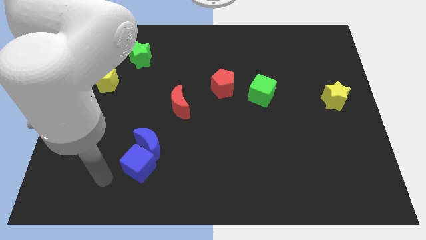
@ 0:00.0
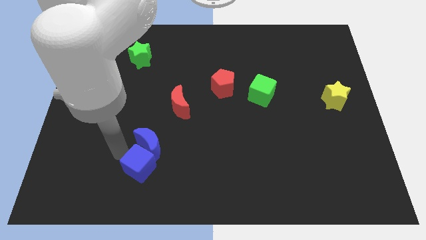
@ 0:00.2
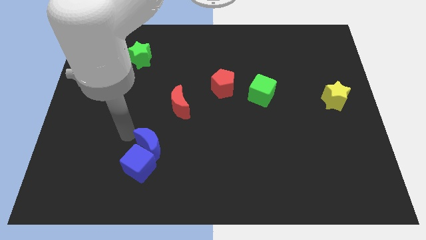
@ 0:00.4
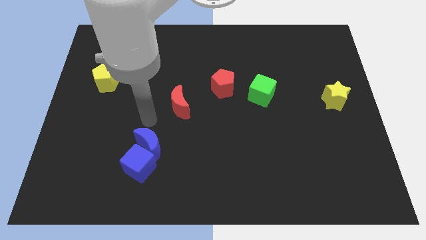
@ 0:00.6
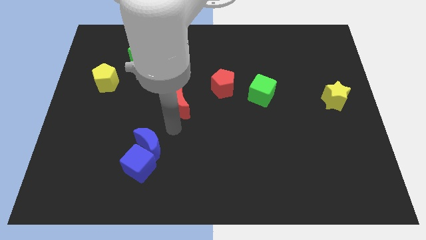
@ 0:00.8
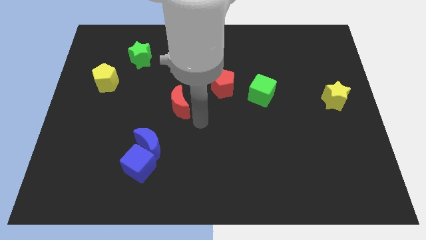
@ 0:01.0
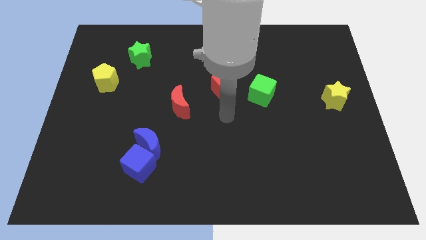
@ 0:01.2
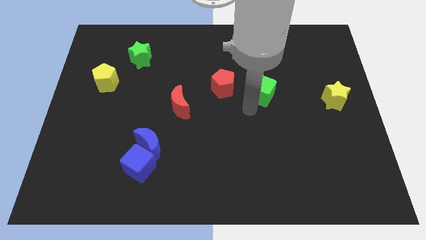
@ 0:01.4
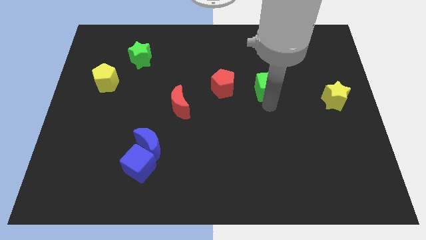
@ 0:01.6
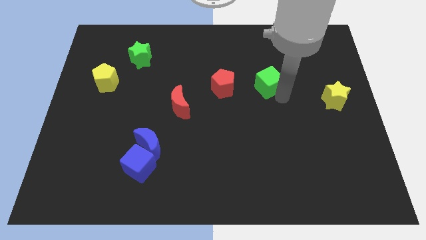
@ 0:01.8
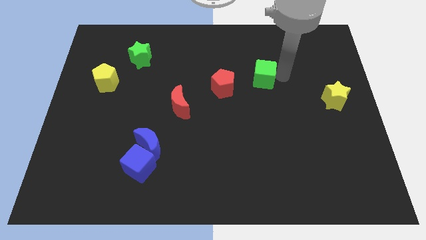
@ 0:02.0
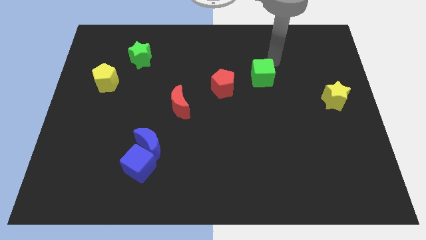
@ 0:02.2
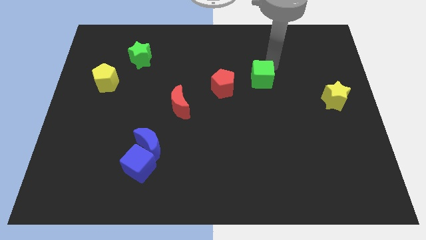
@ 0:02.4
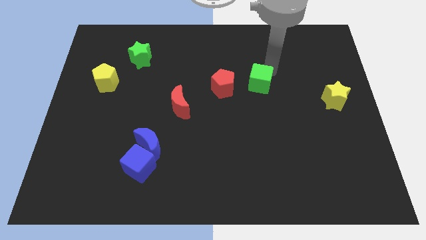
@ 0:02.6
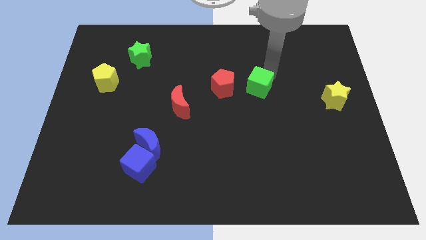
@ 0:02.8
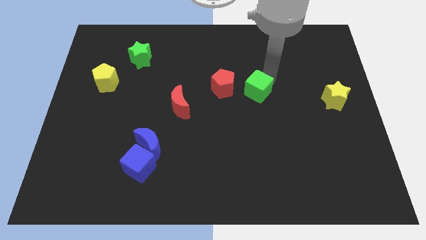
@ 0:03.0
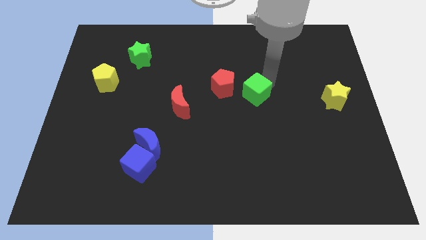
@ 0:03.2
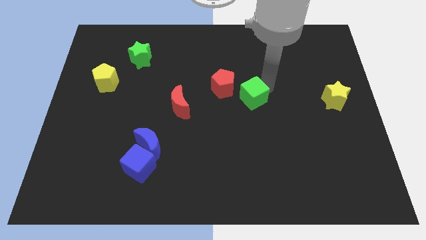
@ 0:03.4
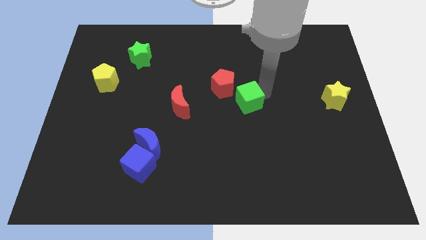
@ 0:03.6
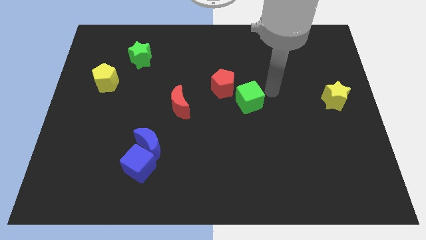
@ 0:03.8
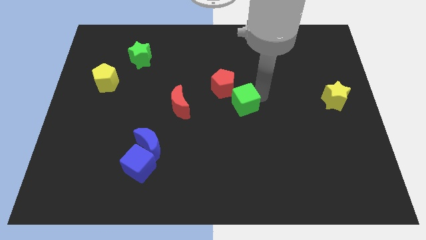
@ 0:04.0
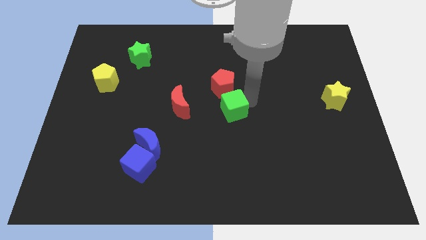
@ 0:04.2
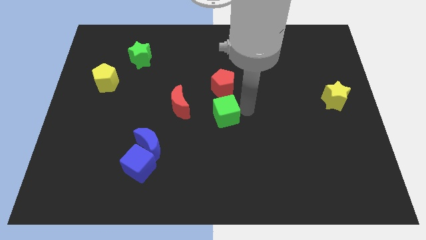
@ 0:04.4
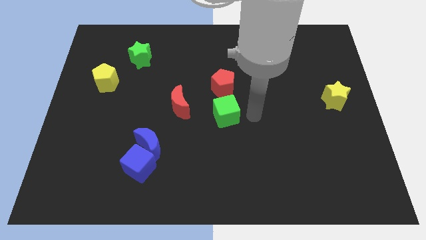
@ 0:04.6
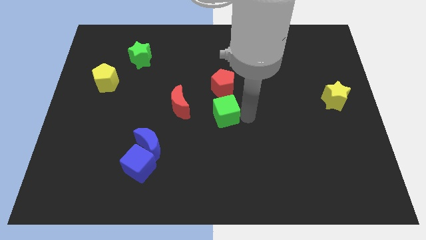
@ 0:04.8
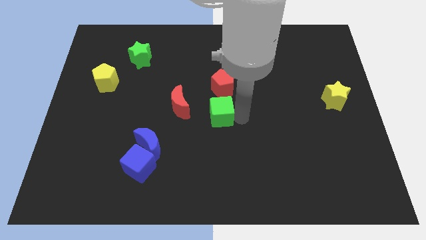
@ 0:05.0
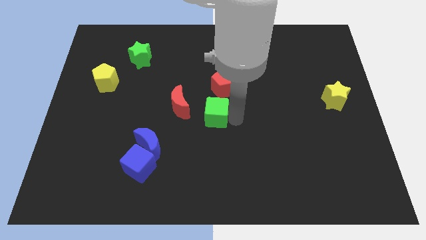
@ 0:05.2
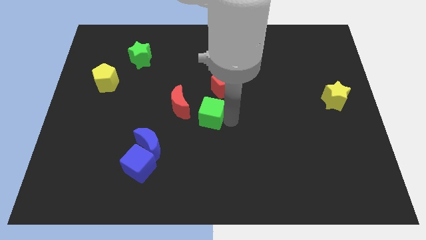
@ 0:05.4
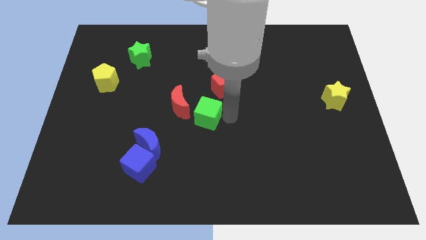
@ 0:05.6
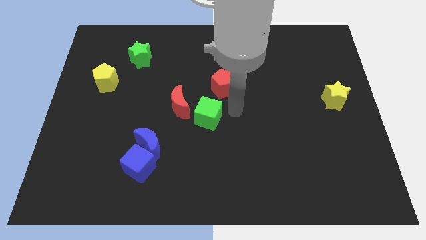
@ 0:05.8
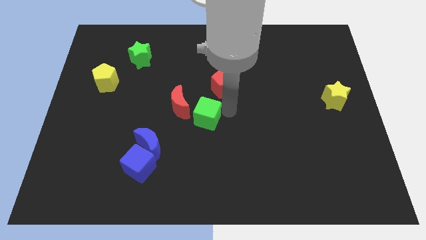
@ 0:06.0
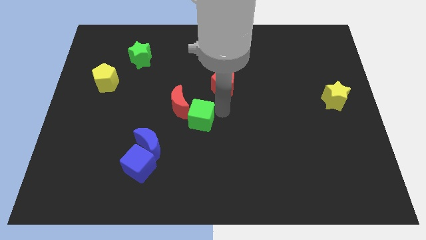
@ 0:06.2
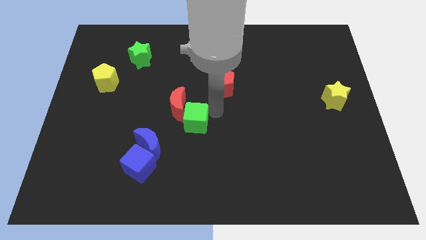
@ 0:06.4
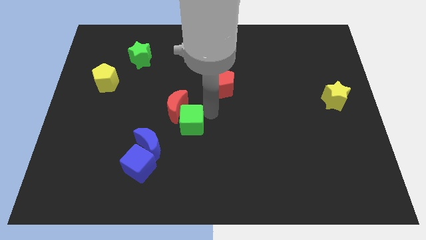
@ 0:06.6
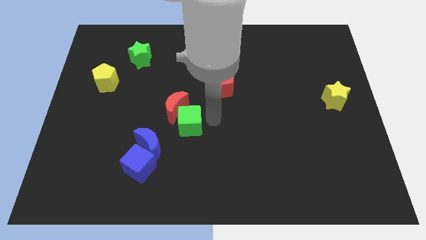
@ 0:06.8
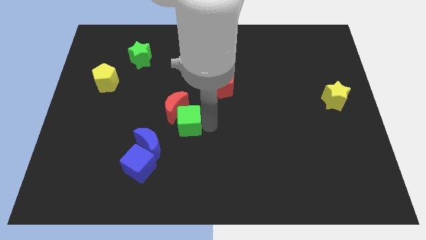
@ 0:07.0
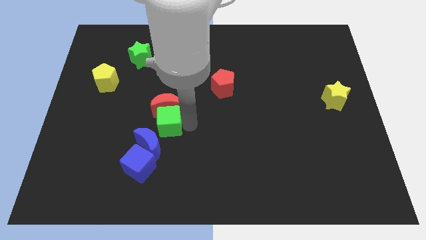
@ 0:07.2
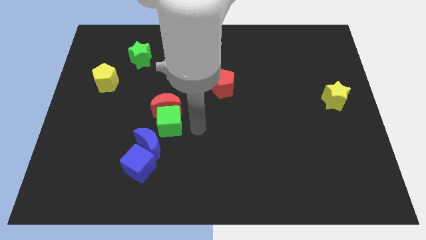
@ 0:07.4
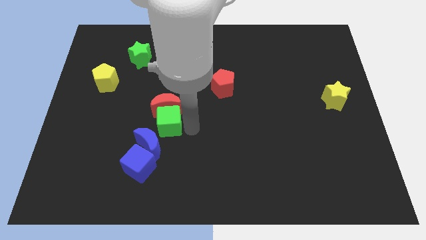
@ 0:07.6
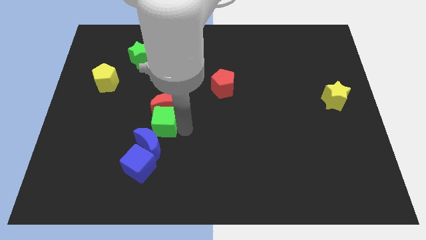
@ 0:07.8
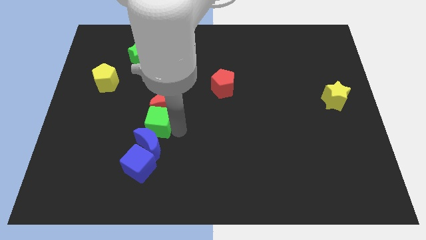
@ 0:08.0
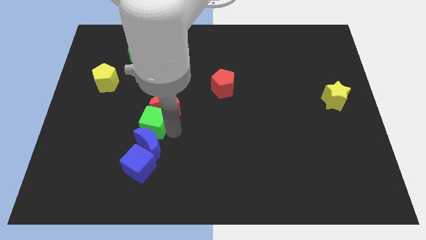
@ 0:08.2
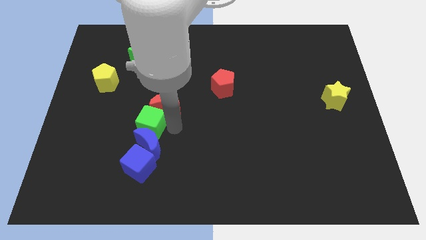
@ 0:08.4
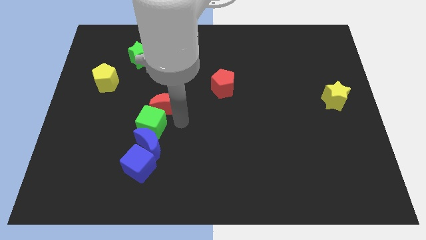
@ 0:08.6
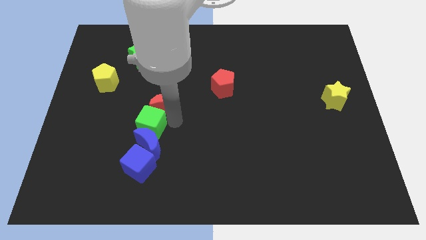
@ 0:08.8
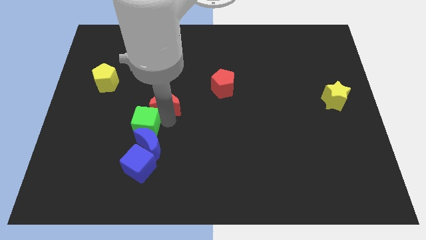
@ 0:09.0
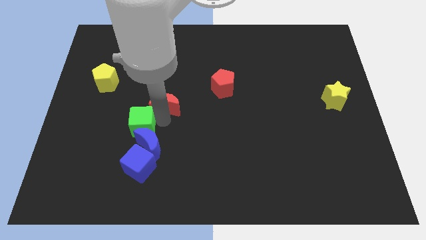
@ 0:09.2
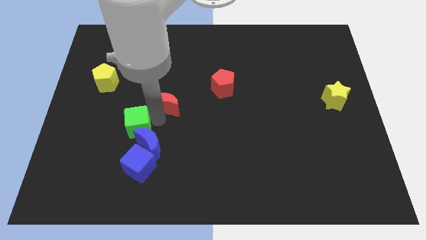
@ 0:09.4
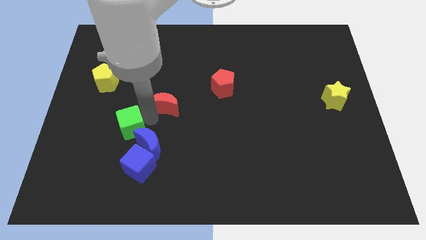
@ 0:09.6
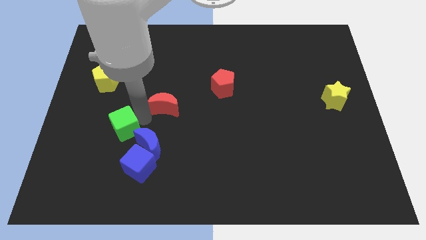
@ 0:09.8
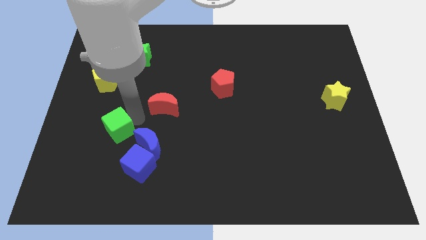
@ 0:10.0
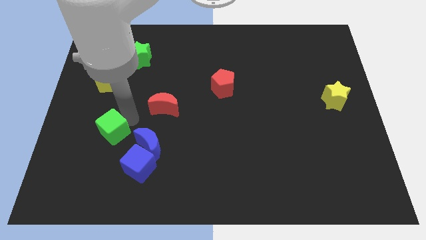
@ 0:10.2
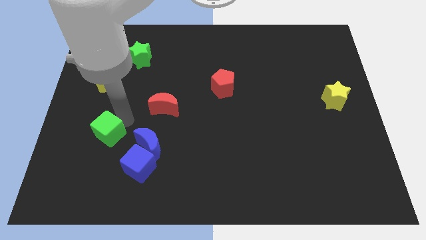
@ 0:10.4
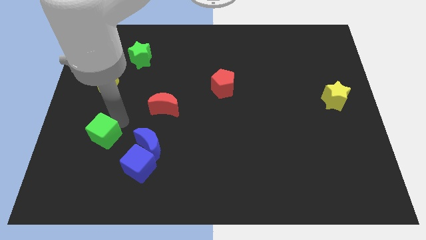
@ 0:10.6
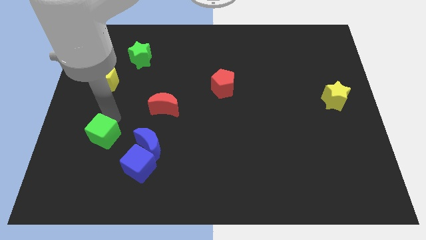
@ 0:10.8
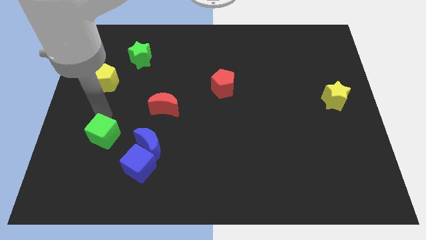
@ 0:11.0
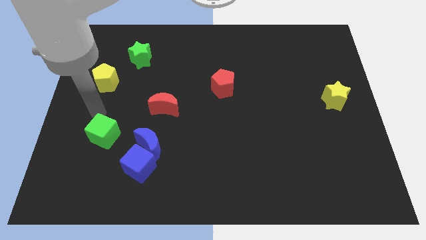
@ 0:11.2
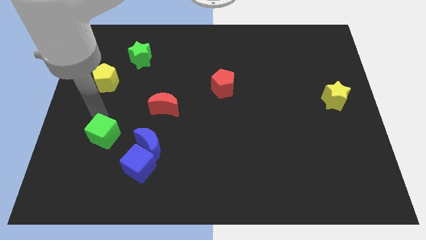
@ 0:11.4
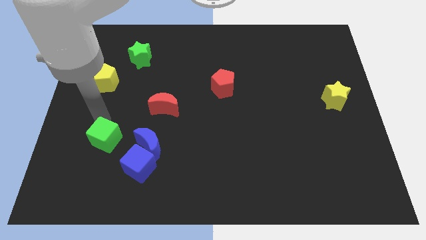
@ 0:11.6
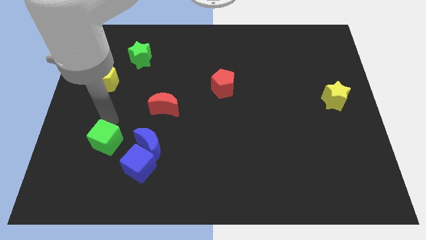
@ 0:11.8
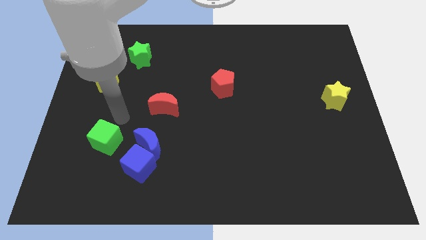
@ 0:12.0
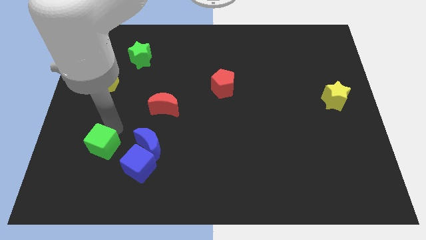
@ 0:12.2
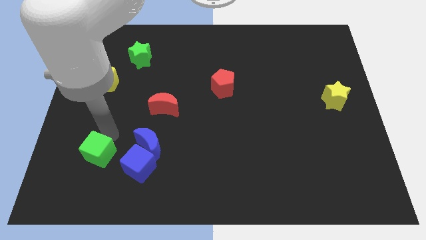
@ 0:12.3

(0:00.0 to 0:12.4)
put the green cube left of the blue cube
